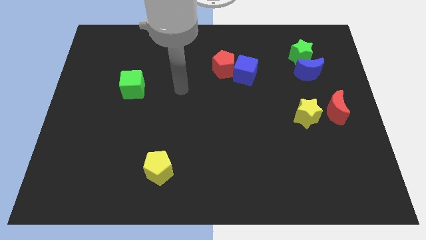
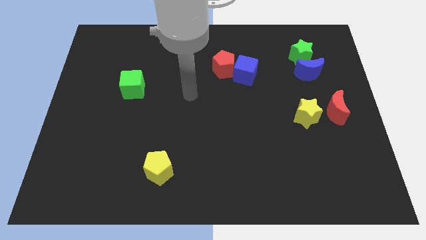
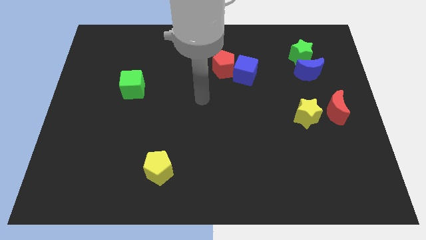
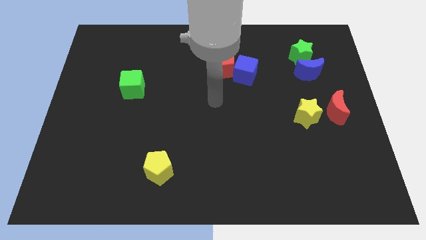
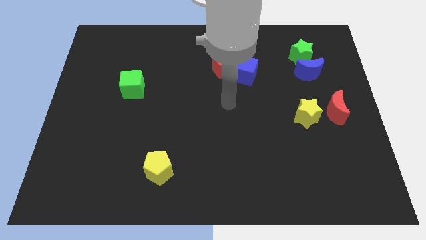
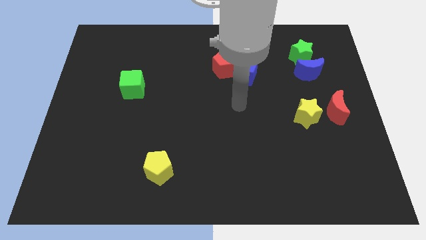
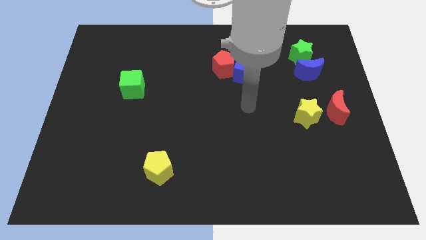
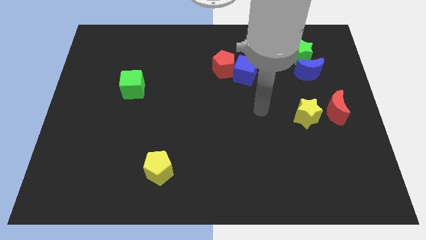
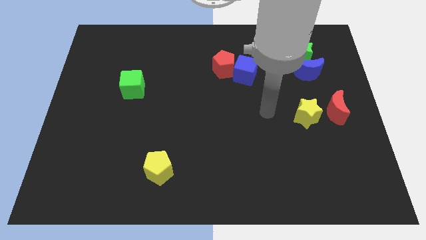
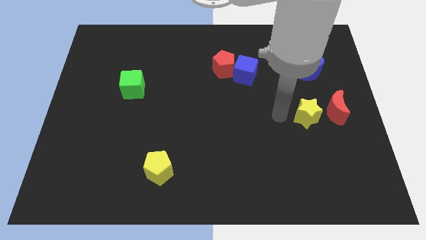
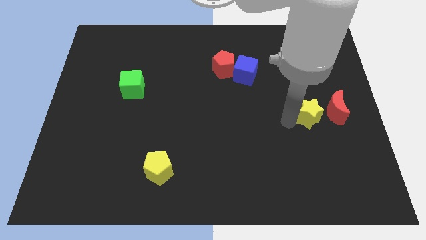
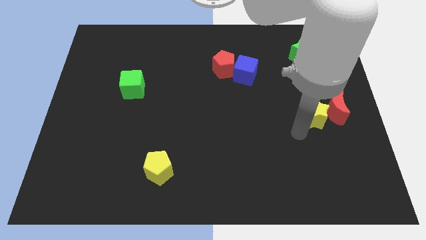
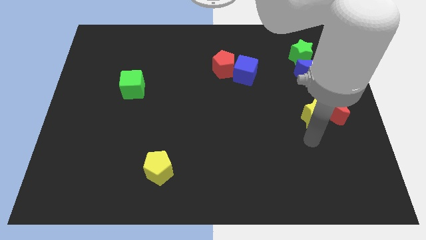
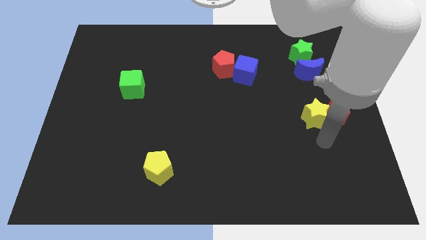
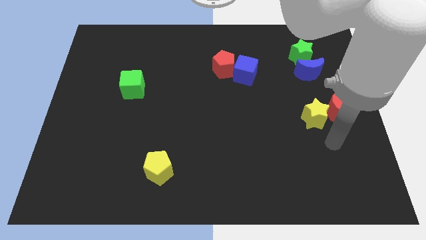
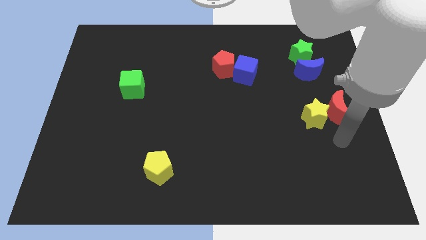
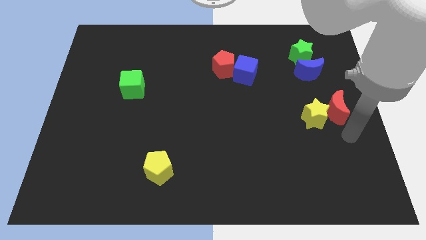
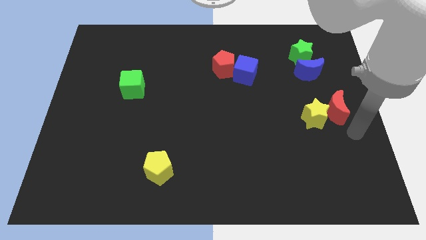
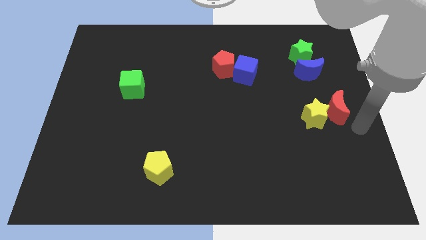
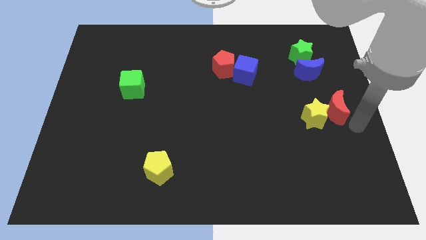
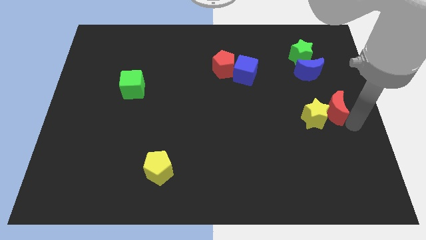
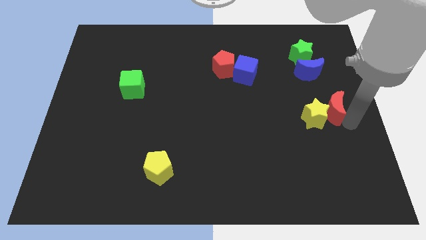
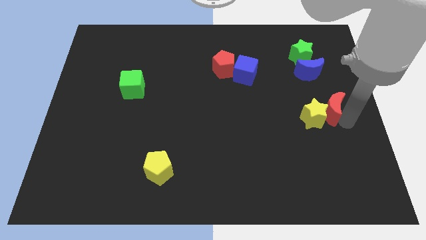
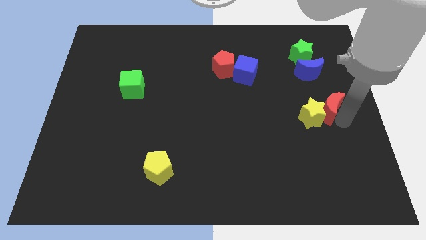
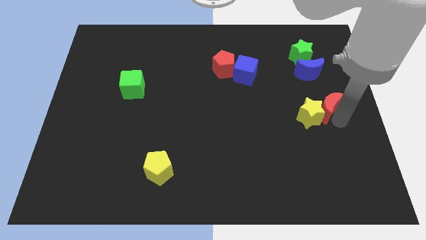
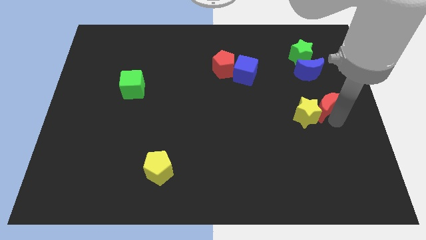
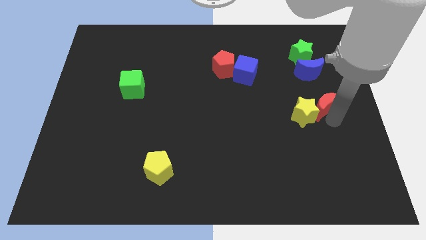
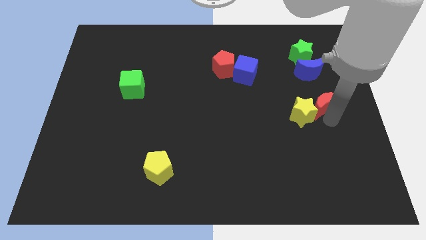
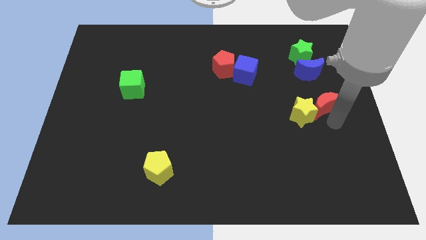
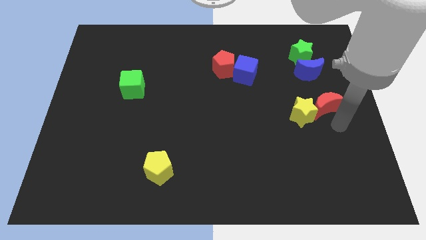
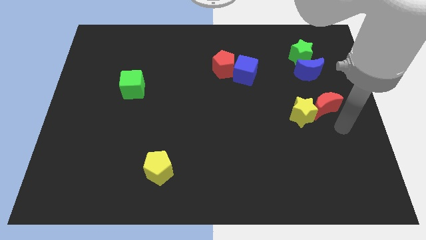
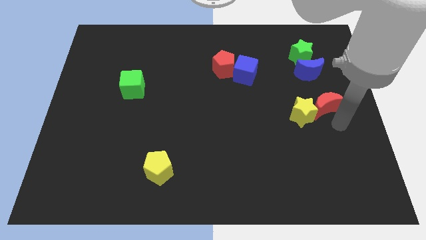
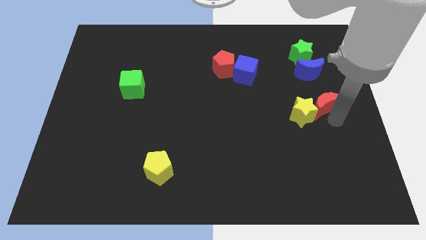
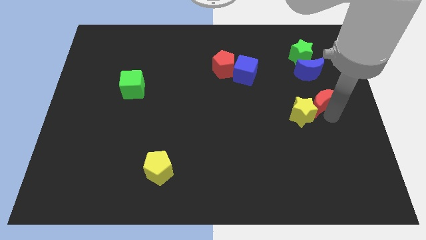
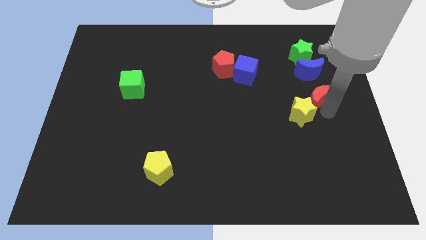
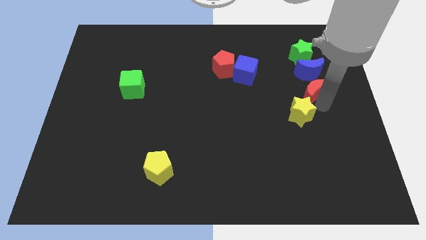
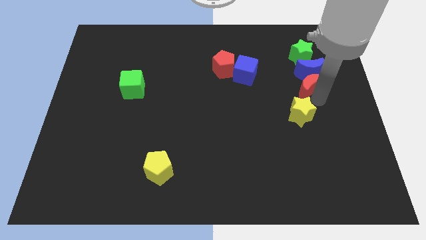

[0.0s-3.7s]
move the red moon upwards and then to the left slightly

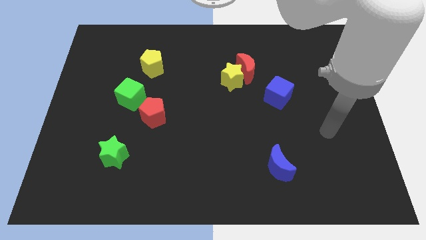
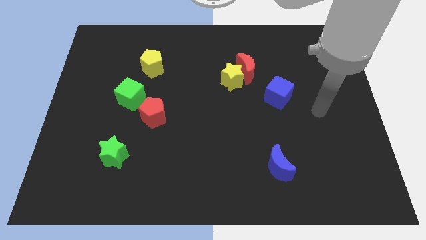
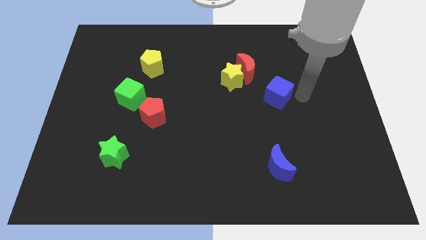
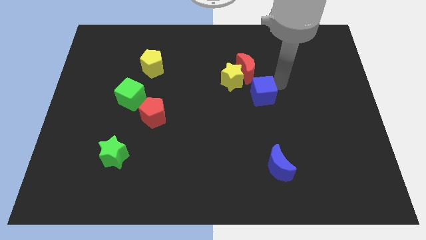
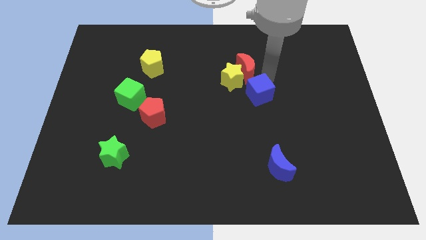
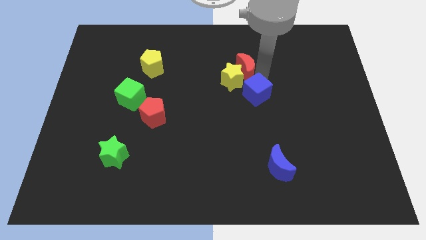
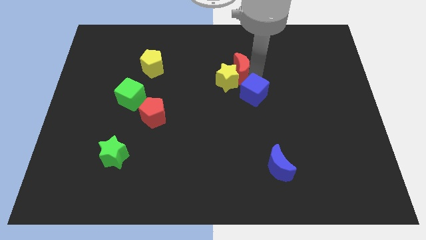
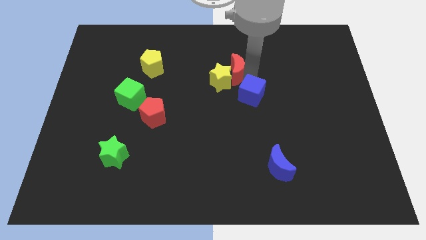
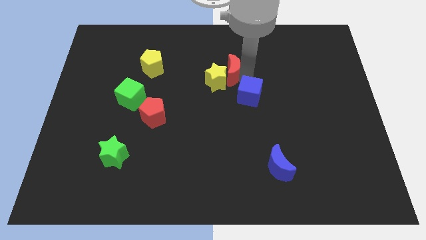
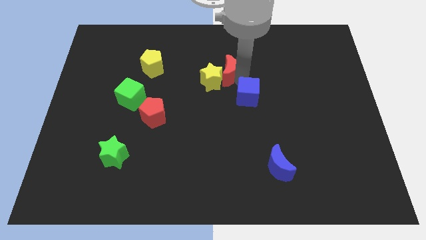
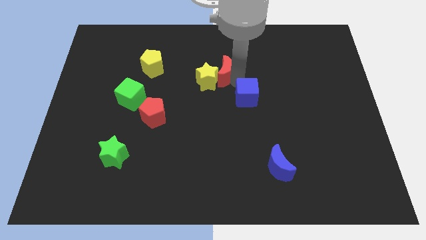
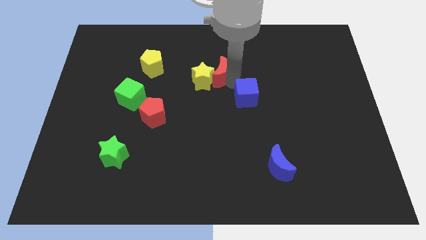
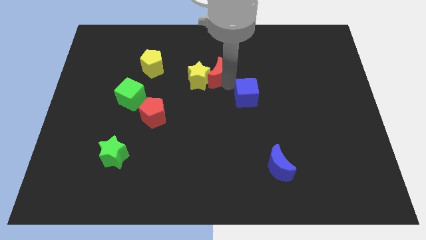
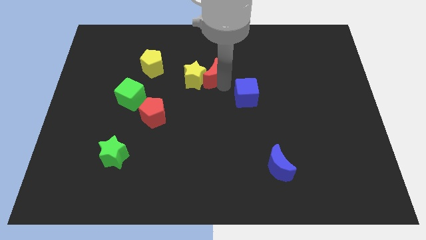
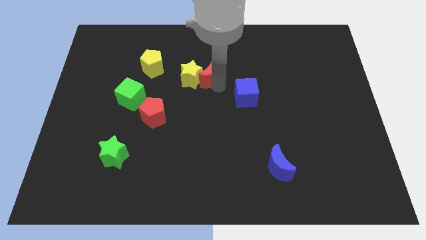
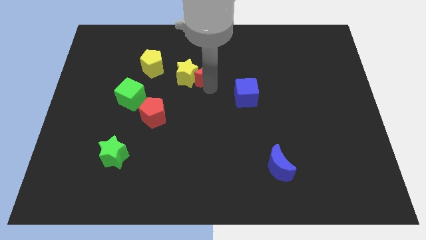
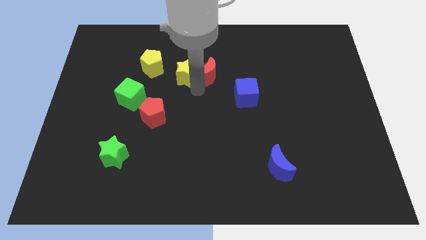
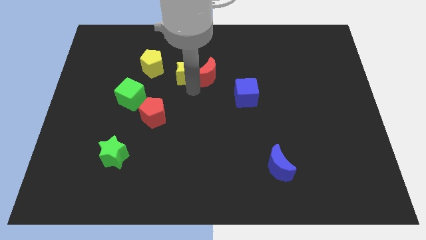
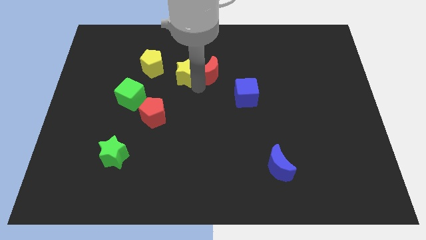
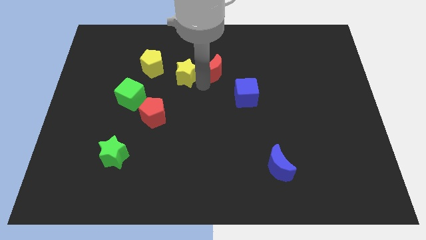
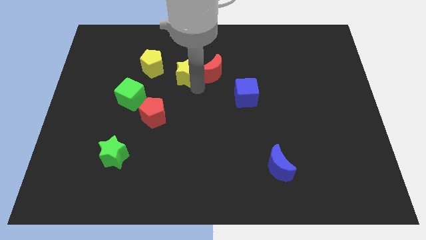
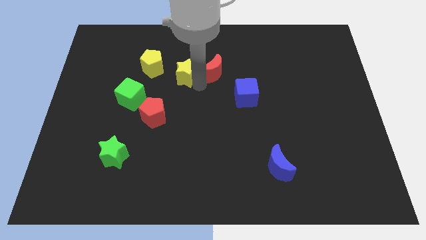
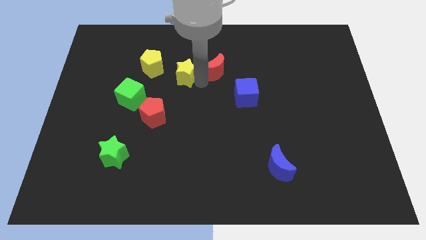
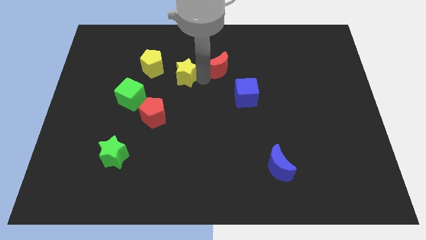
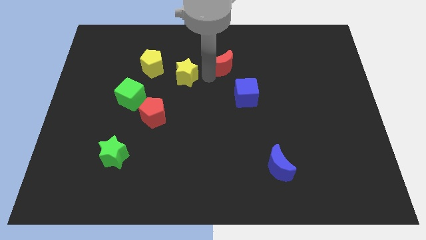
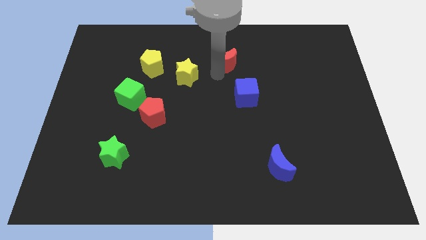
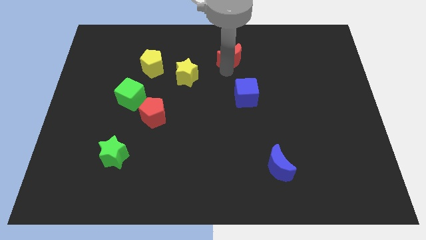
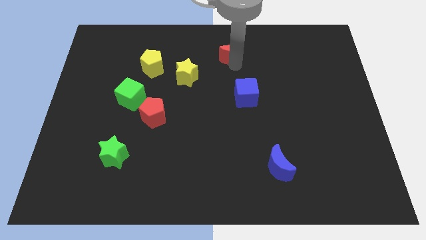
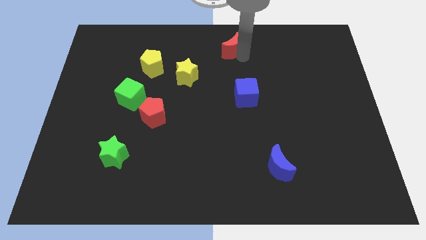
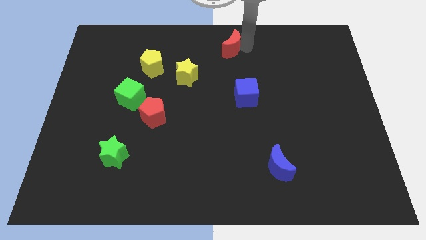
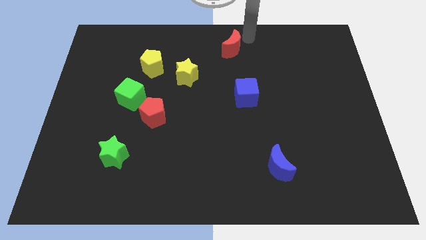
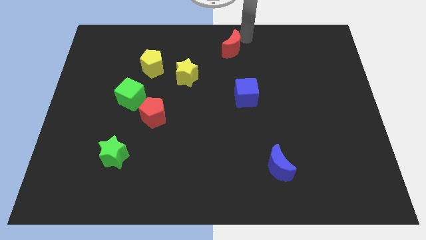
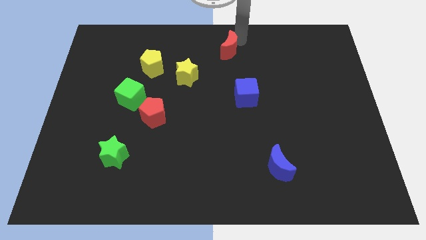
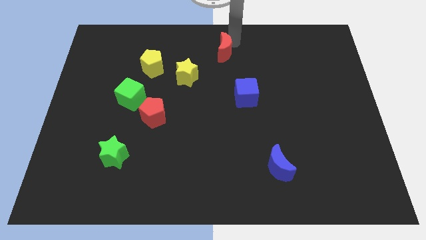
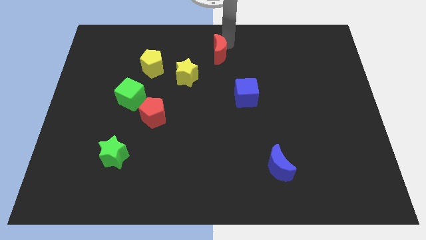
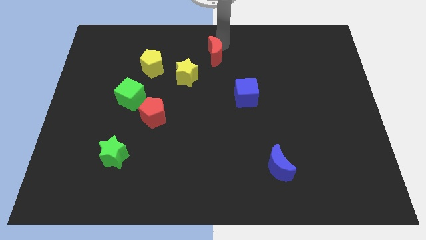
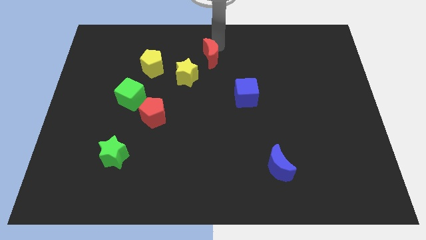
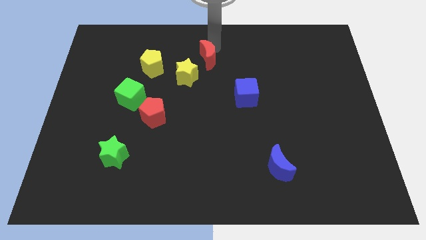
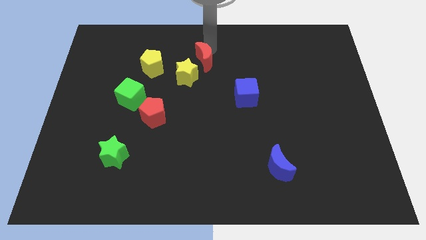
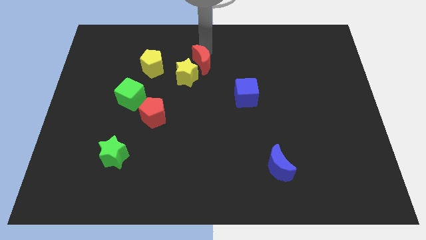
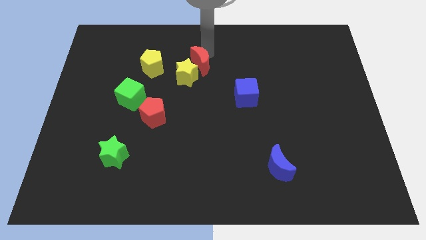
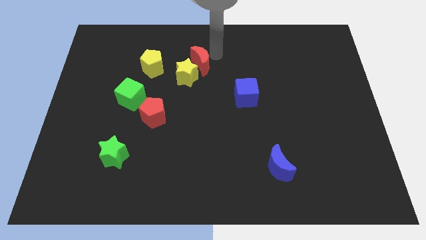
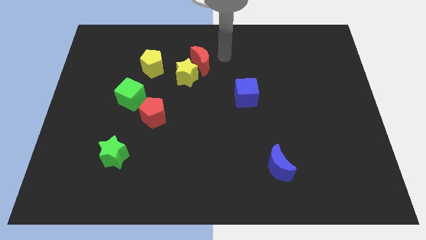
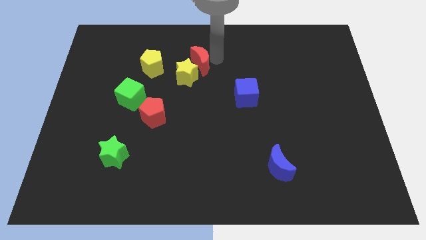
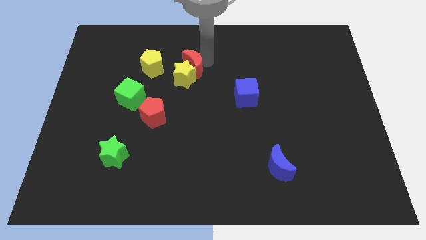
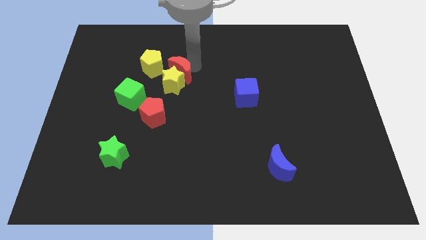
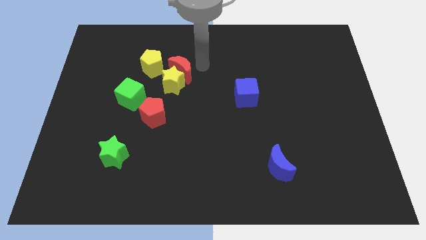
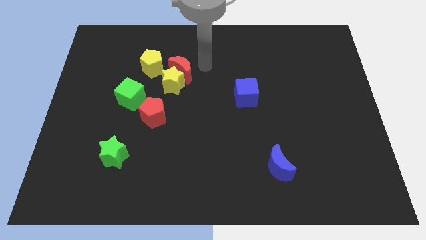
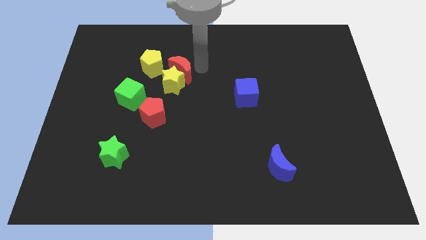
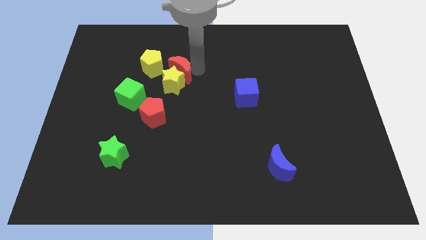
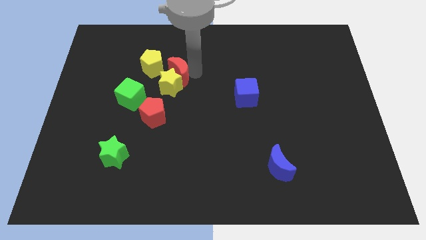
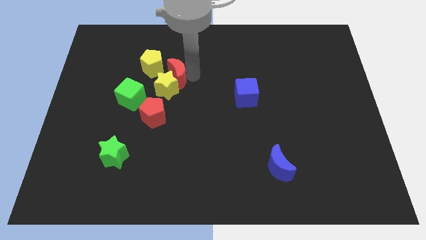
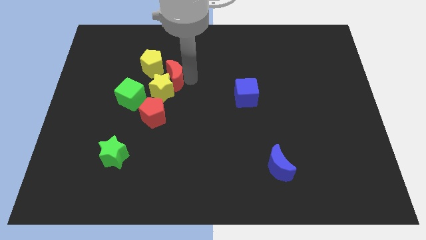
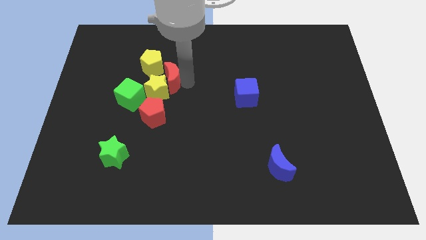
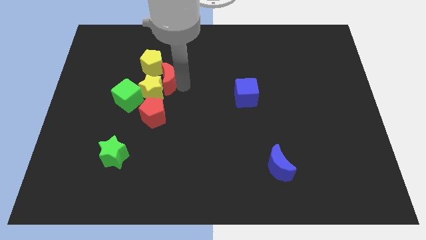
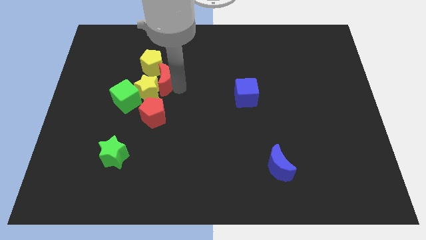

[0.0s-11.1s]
move the red moon to the left
